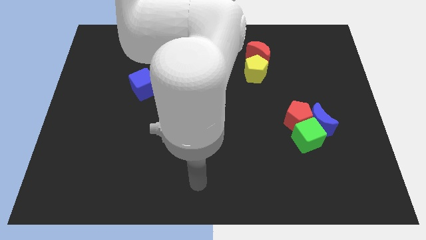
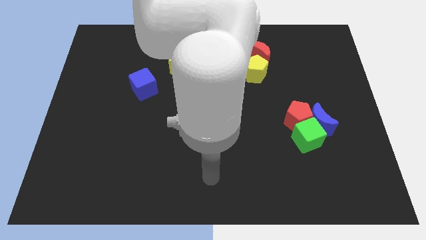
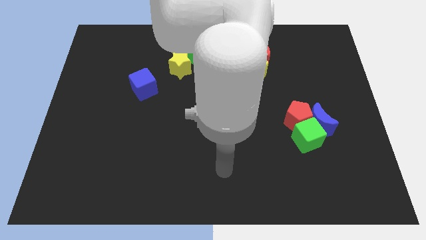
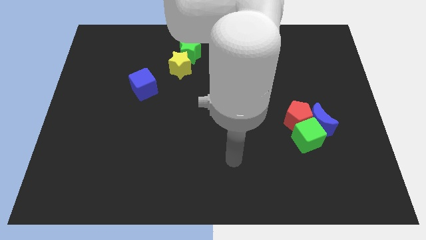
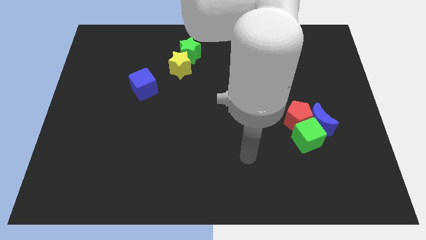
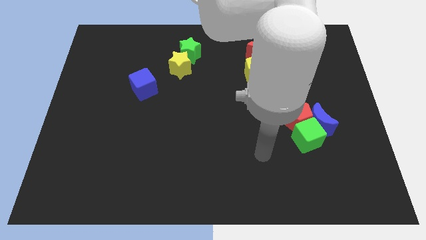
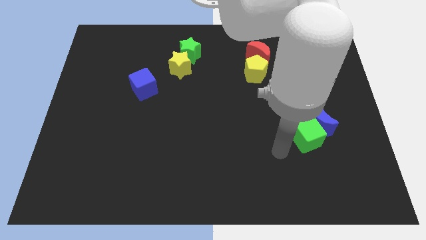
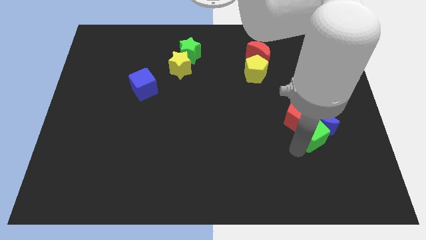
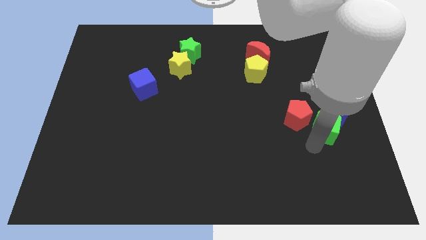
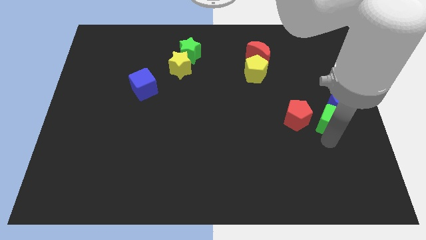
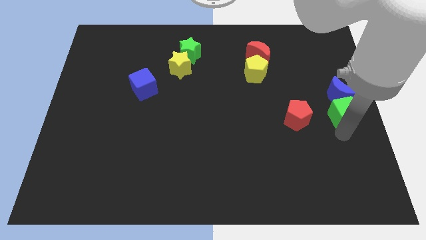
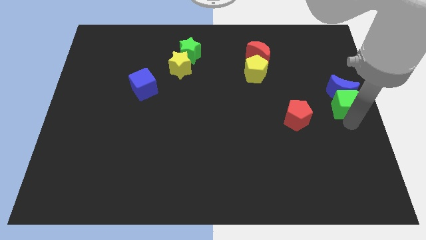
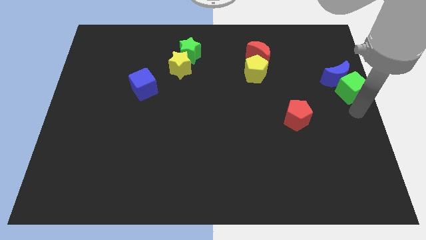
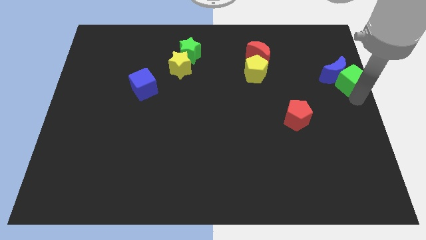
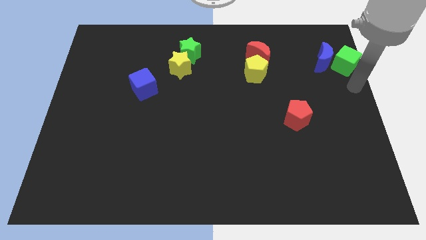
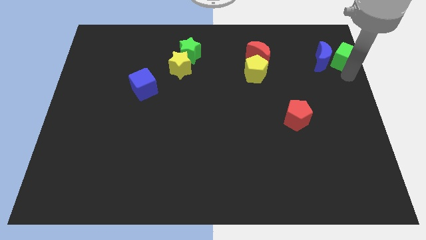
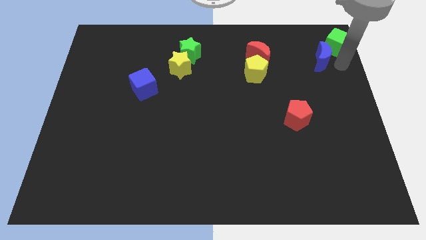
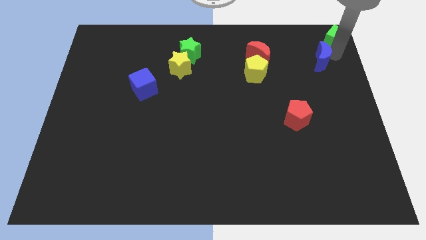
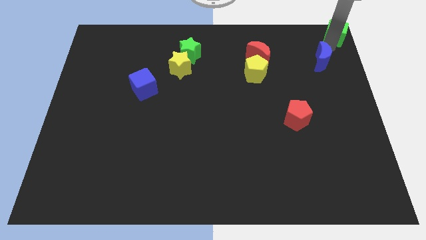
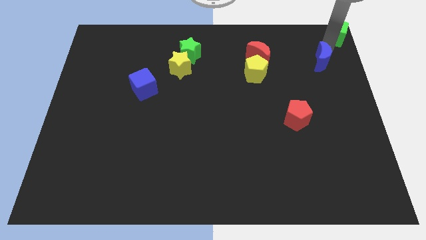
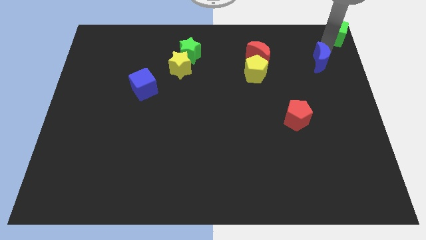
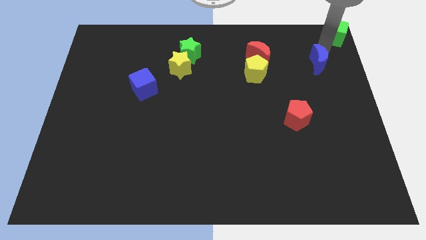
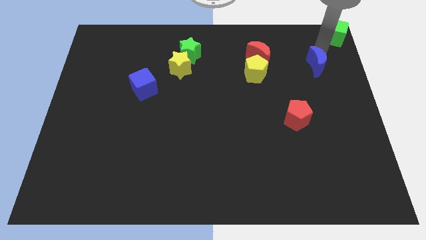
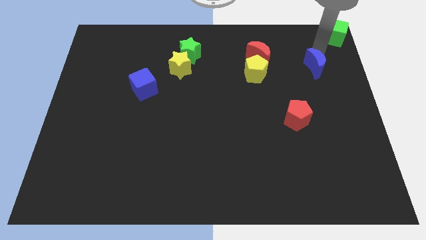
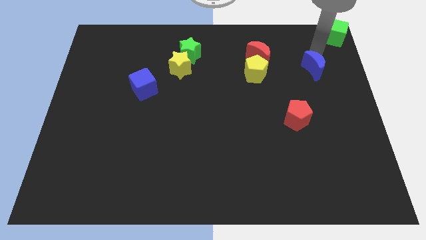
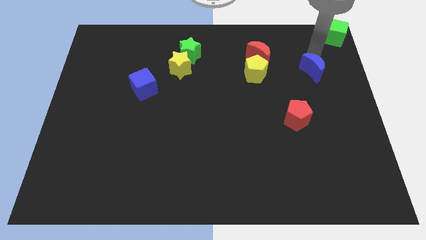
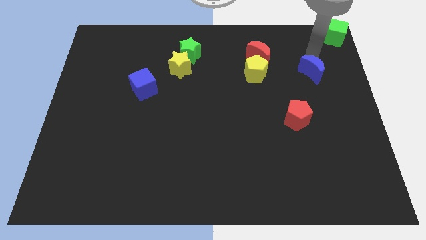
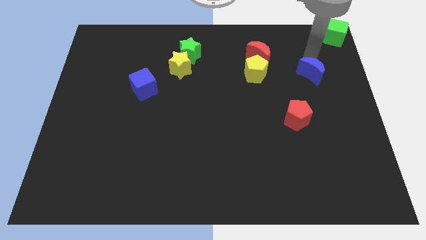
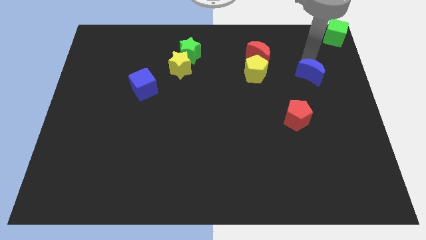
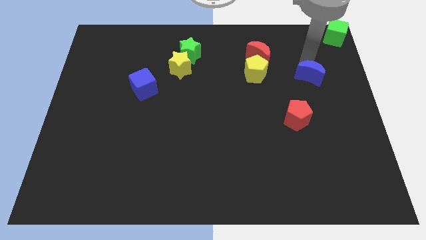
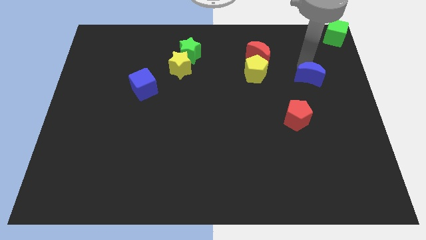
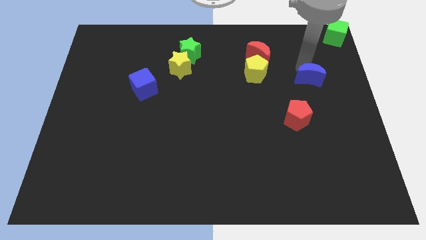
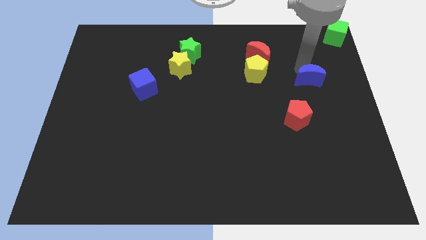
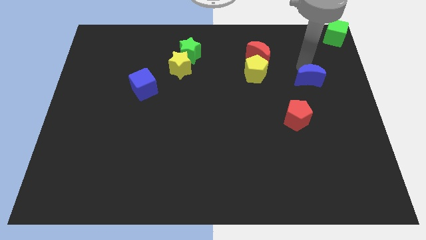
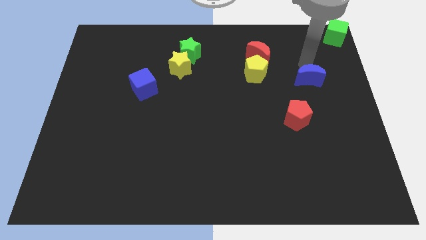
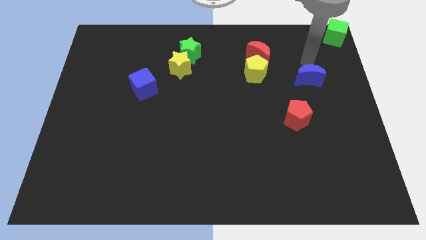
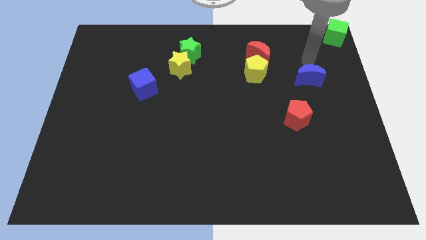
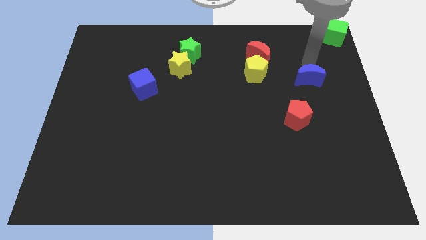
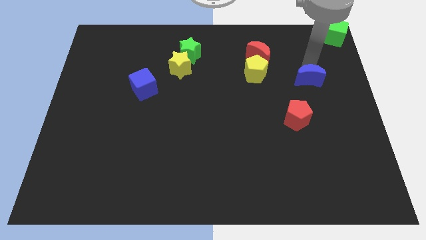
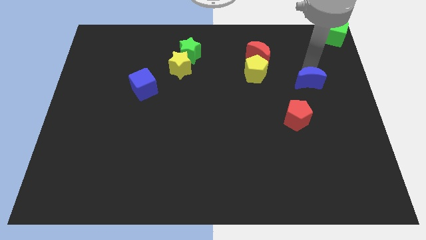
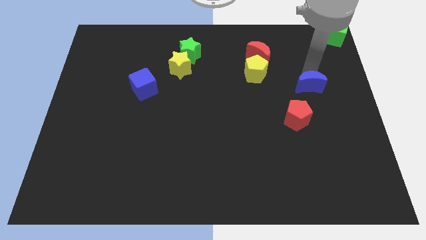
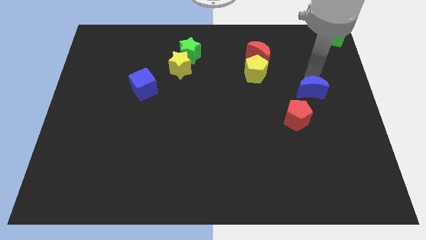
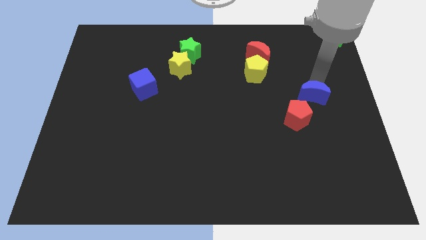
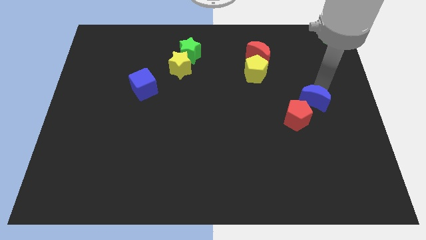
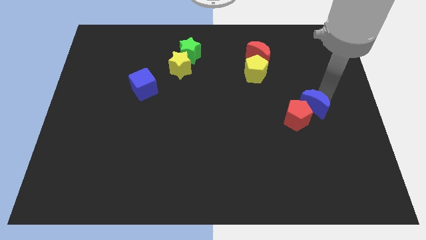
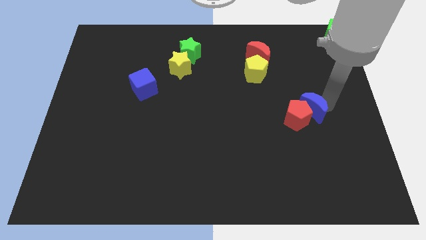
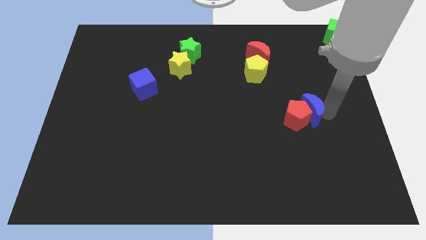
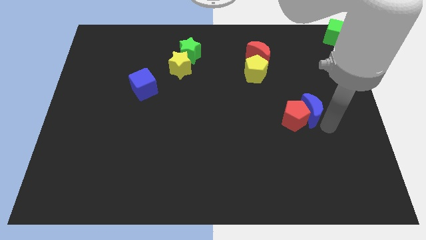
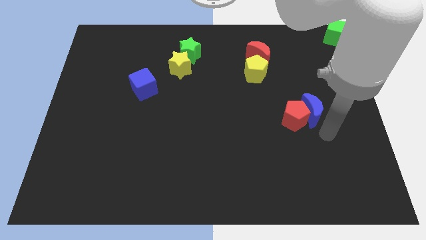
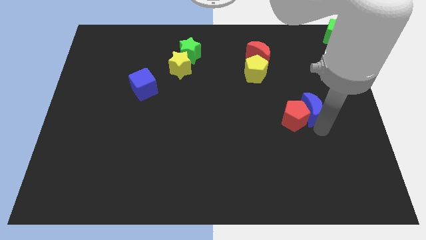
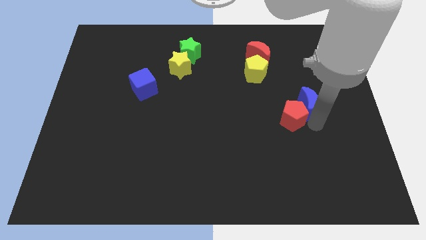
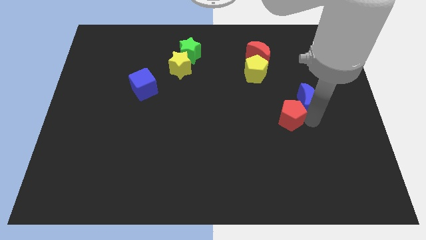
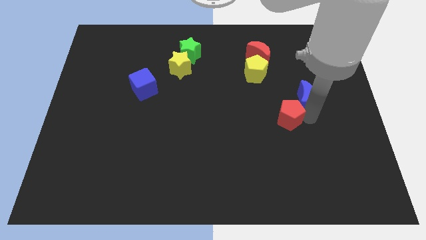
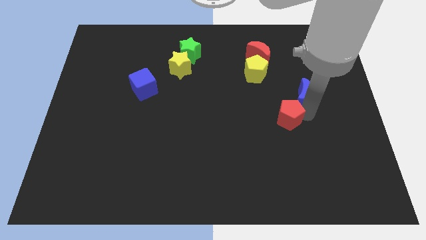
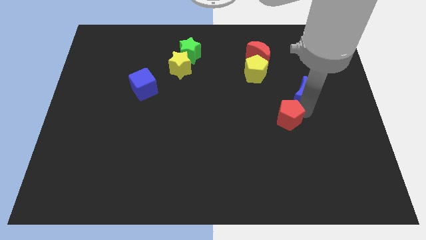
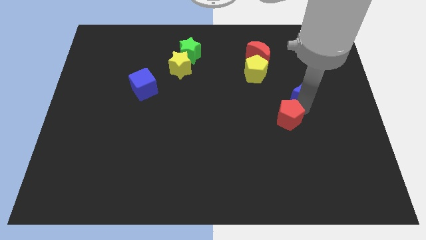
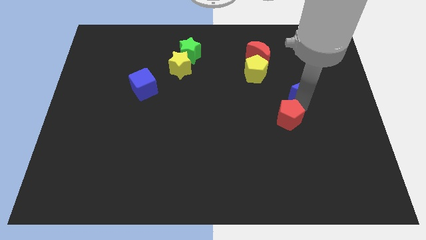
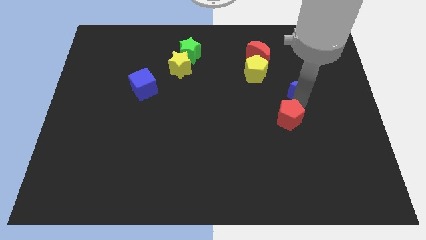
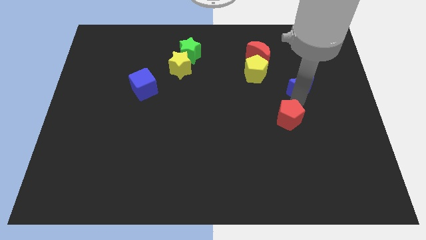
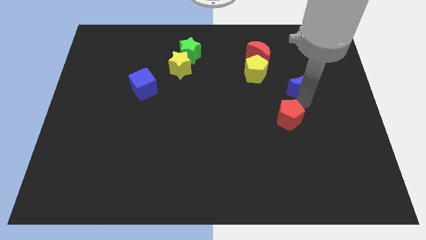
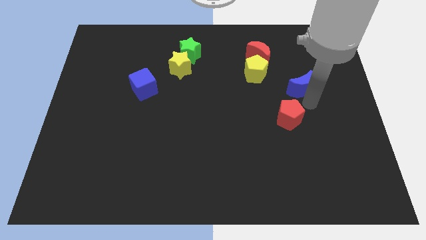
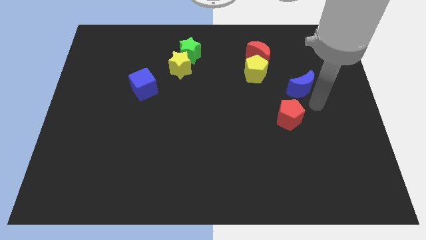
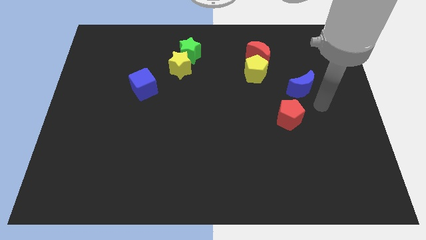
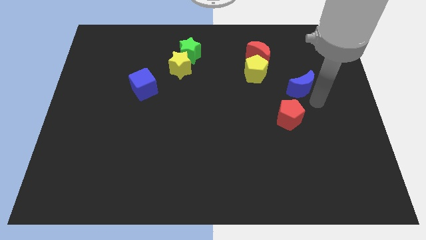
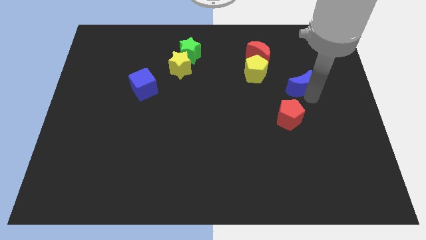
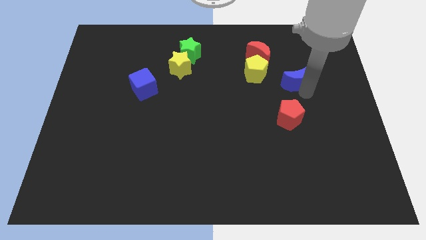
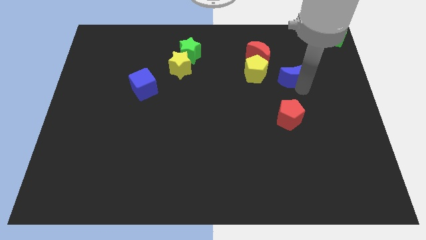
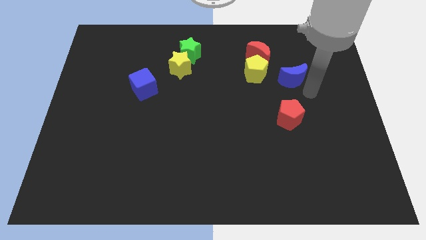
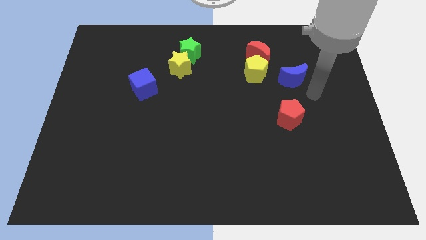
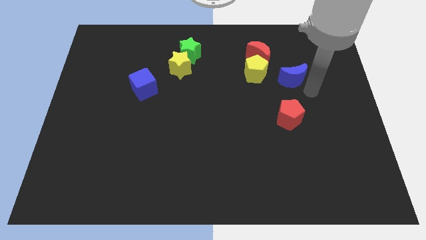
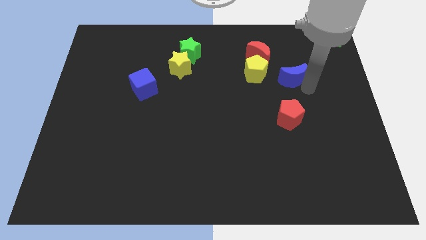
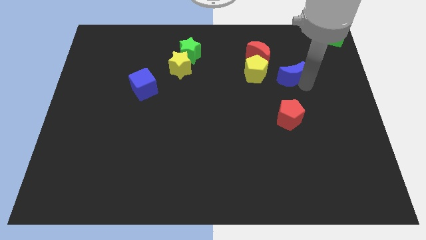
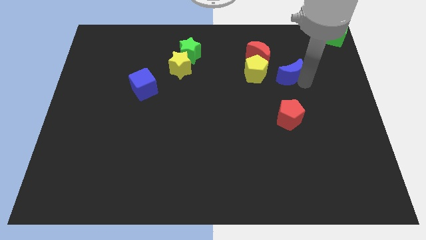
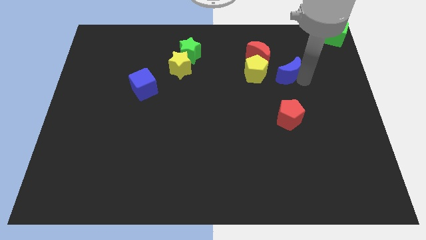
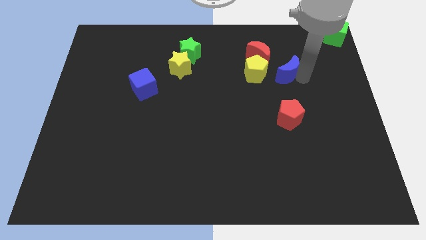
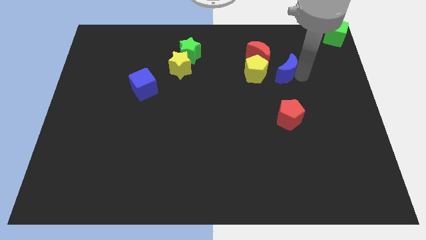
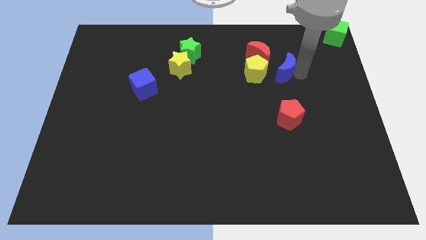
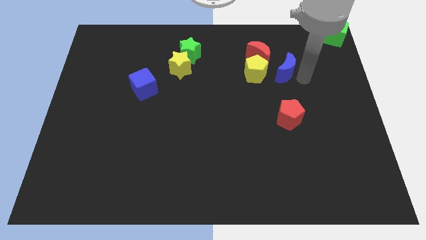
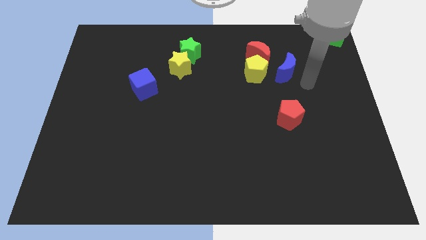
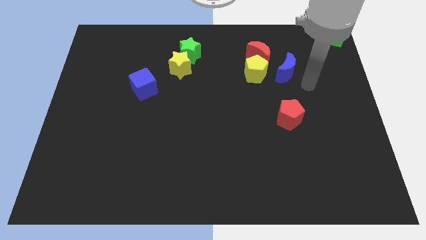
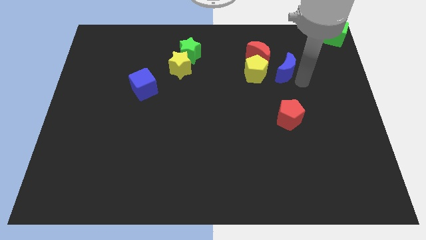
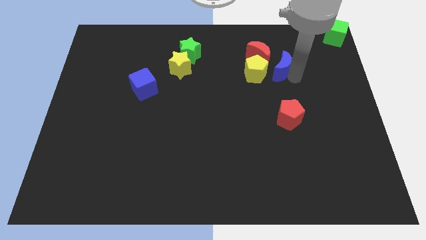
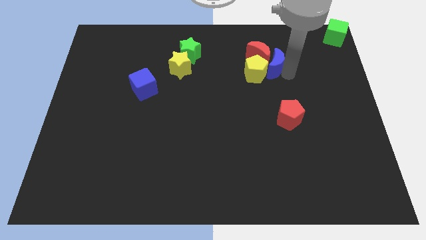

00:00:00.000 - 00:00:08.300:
move the blue moon close to the red moon
